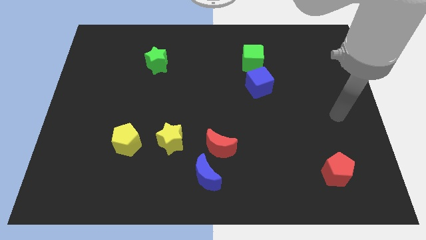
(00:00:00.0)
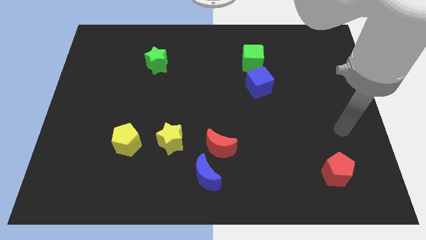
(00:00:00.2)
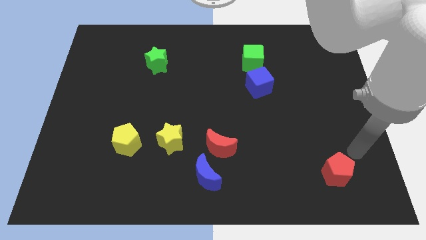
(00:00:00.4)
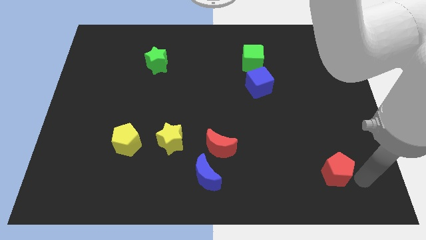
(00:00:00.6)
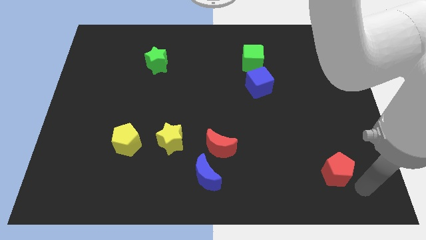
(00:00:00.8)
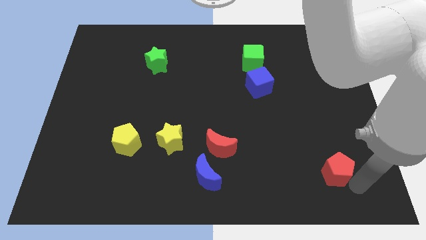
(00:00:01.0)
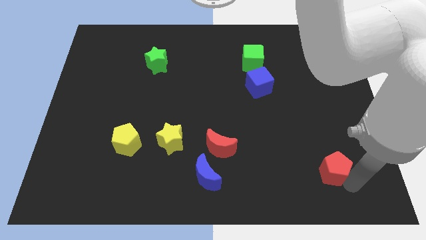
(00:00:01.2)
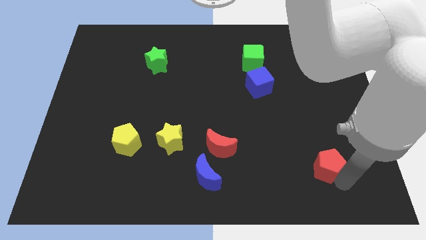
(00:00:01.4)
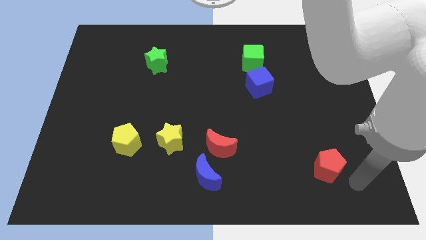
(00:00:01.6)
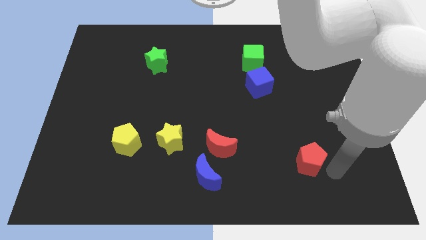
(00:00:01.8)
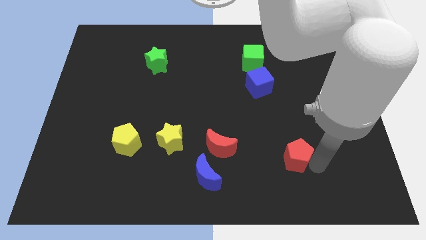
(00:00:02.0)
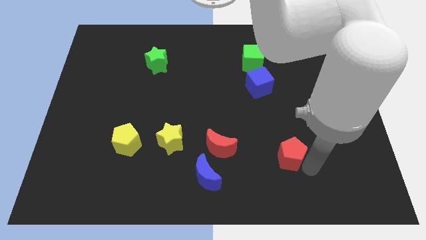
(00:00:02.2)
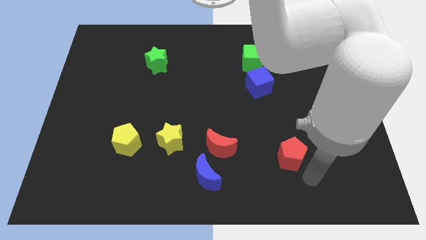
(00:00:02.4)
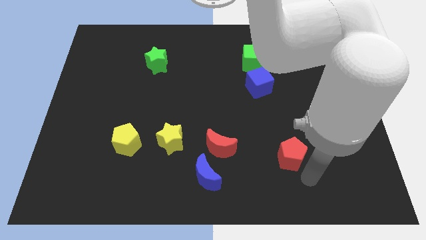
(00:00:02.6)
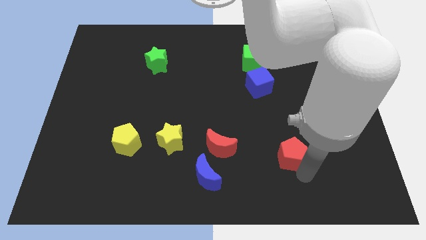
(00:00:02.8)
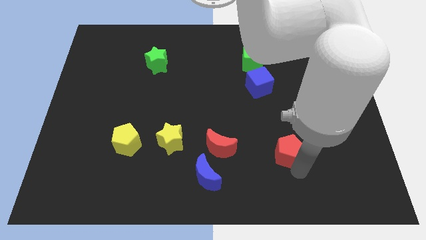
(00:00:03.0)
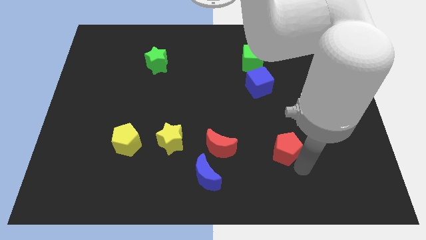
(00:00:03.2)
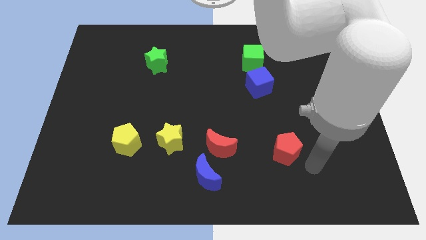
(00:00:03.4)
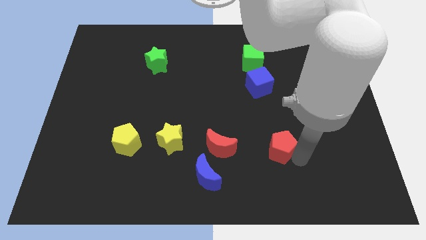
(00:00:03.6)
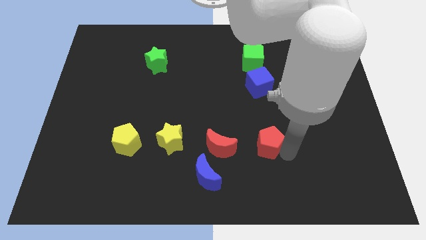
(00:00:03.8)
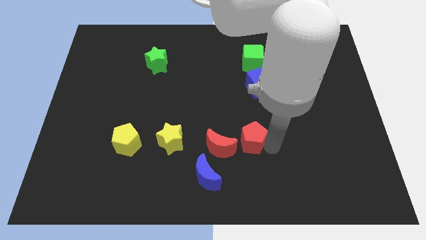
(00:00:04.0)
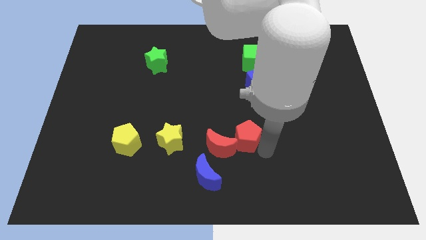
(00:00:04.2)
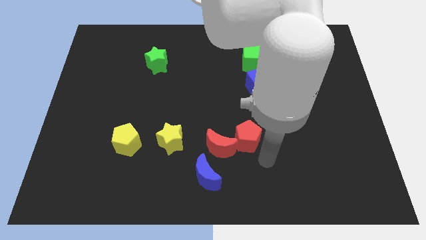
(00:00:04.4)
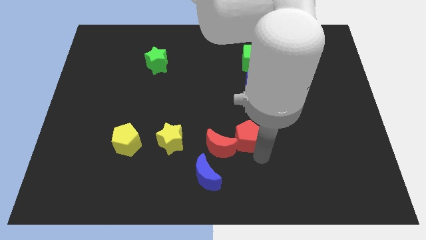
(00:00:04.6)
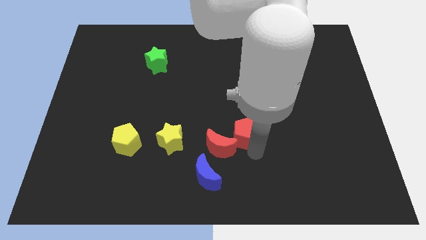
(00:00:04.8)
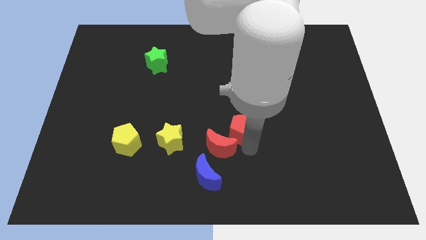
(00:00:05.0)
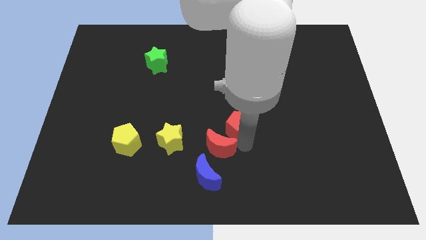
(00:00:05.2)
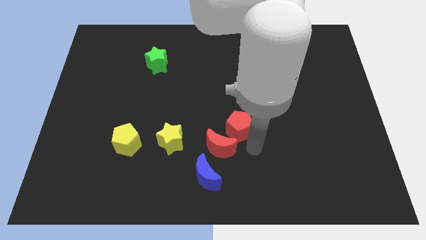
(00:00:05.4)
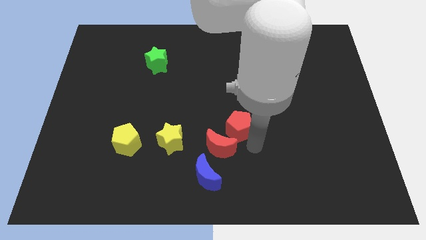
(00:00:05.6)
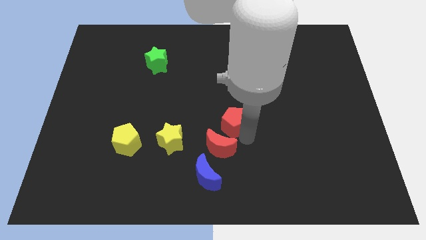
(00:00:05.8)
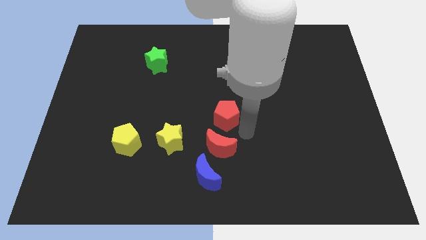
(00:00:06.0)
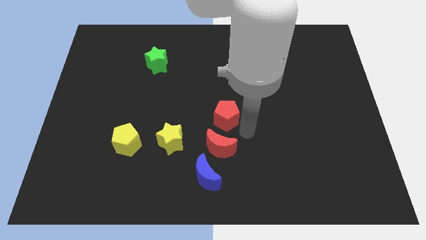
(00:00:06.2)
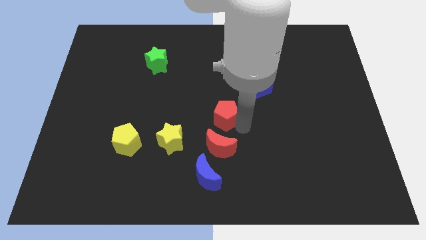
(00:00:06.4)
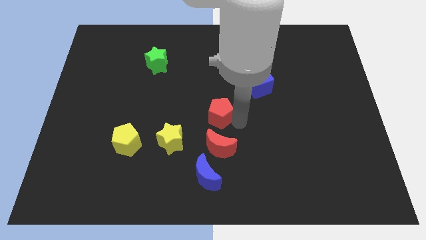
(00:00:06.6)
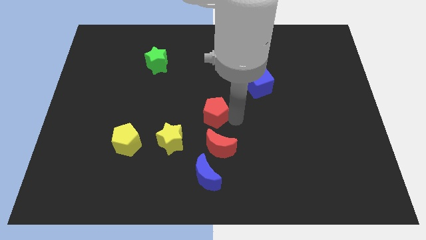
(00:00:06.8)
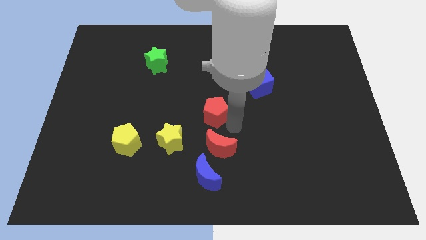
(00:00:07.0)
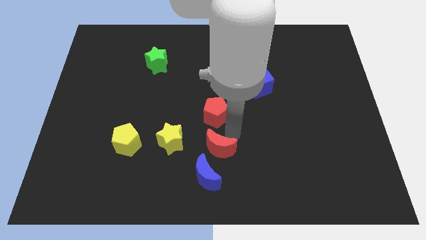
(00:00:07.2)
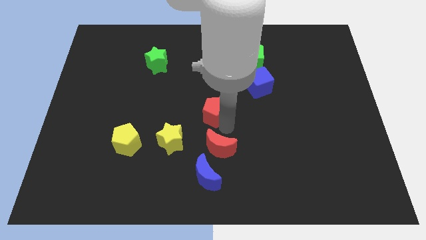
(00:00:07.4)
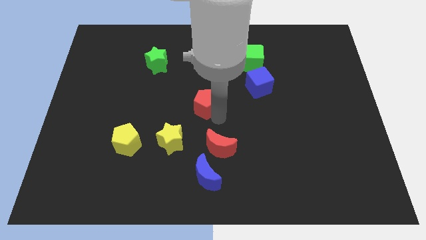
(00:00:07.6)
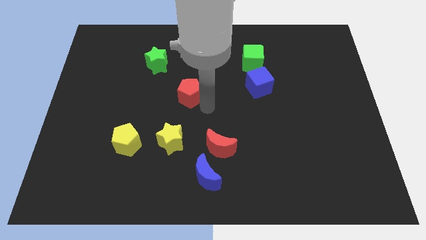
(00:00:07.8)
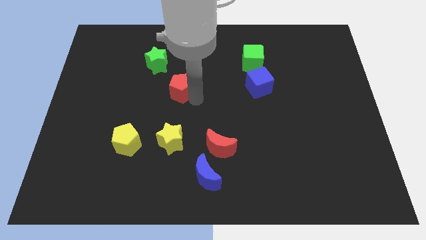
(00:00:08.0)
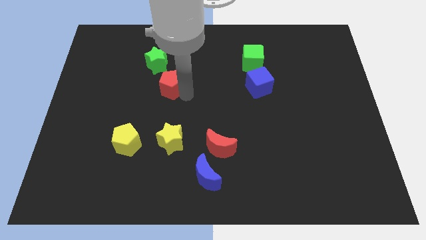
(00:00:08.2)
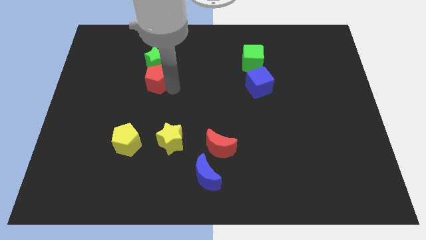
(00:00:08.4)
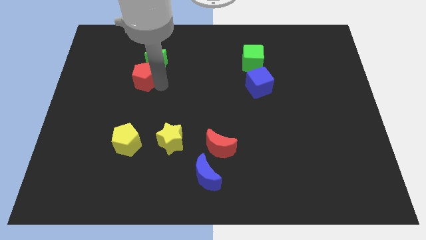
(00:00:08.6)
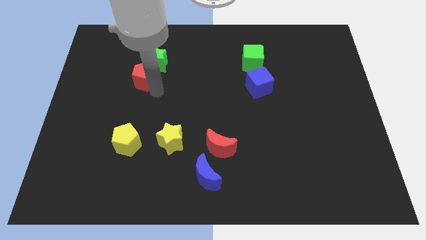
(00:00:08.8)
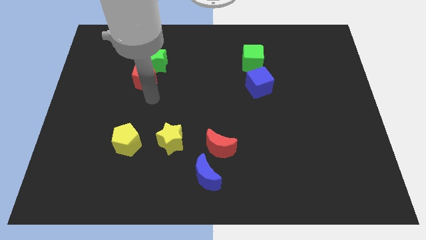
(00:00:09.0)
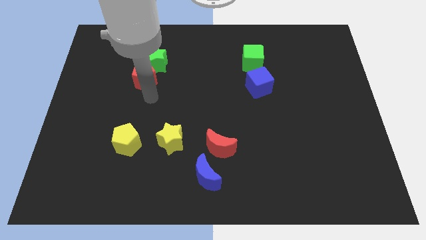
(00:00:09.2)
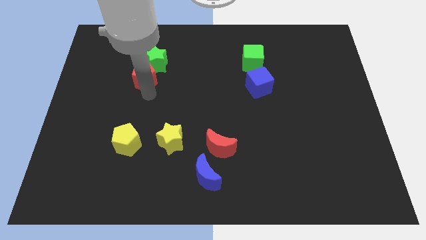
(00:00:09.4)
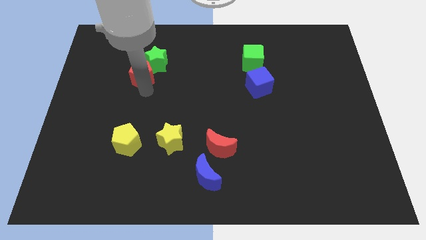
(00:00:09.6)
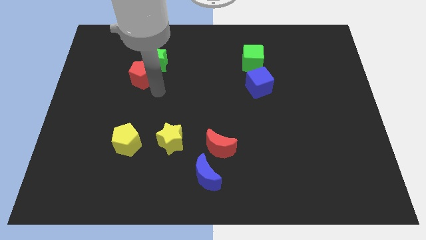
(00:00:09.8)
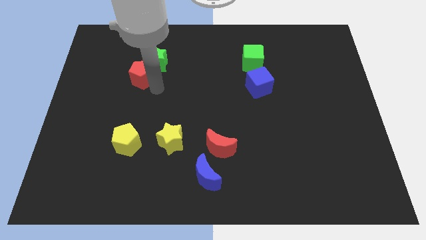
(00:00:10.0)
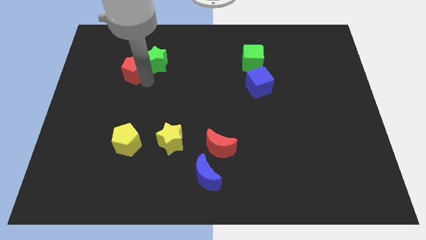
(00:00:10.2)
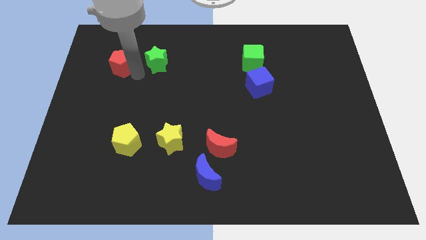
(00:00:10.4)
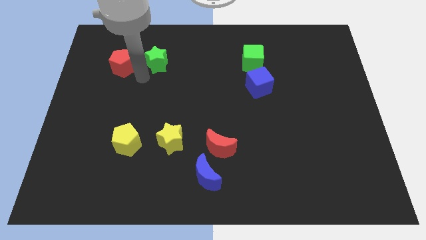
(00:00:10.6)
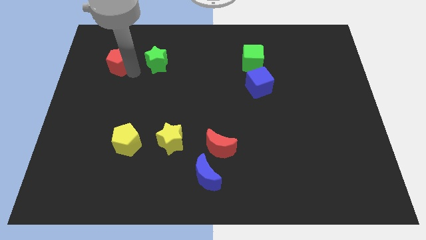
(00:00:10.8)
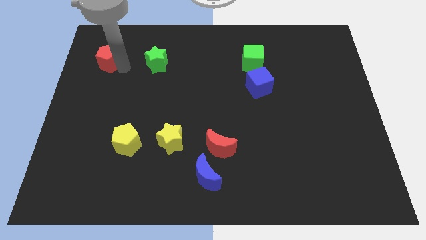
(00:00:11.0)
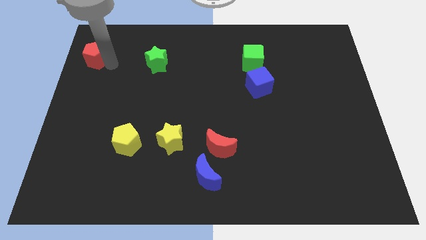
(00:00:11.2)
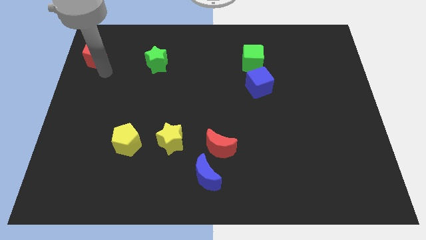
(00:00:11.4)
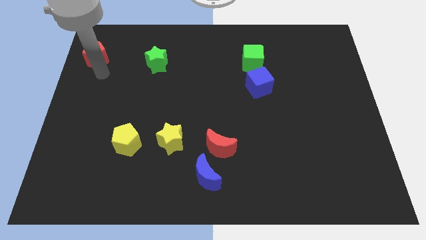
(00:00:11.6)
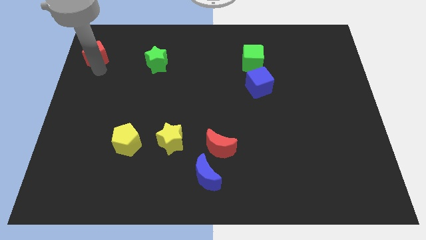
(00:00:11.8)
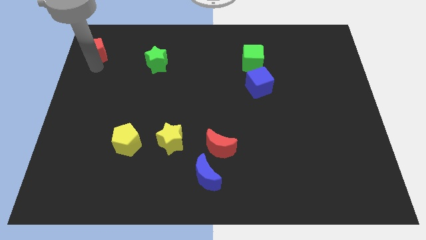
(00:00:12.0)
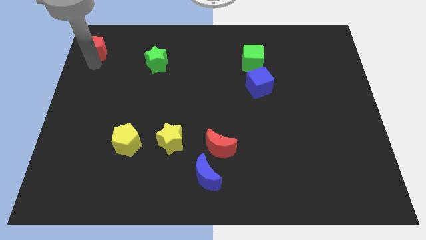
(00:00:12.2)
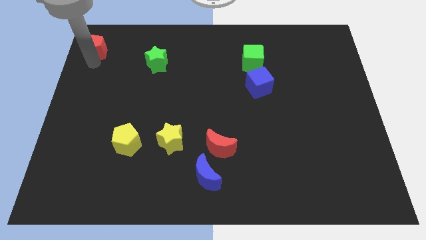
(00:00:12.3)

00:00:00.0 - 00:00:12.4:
put the red pentagon to the top left of the board
